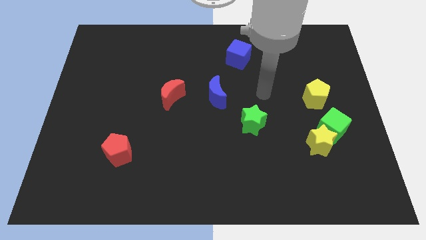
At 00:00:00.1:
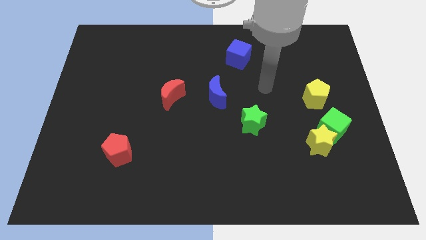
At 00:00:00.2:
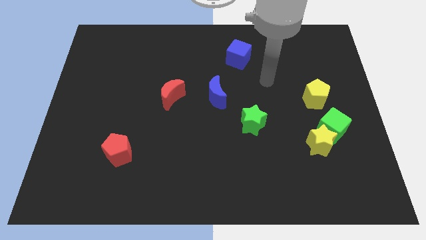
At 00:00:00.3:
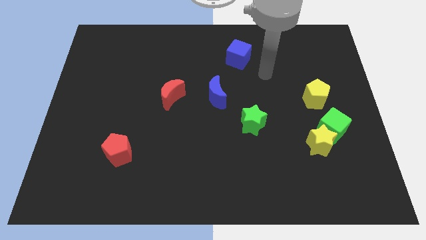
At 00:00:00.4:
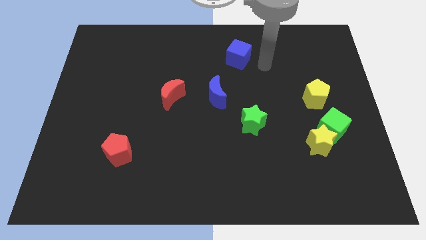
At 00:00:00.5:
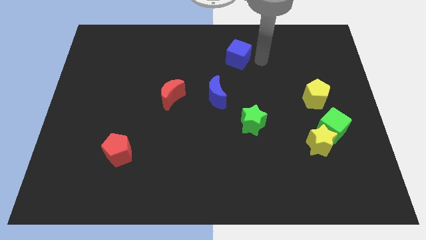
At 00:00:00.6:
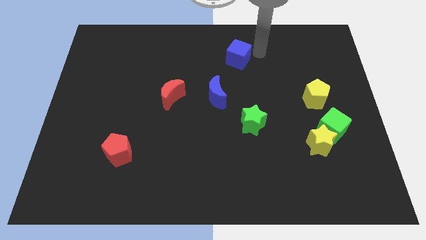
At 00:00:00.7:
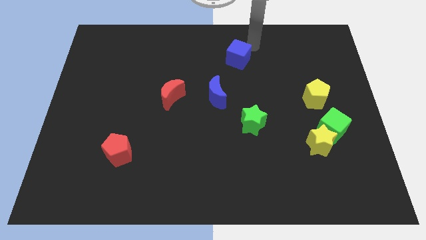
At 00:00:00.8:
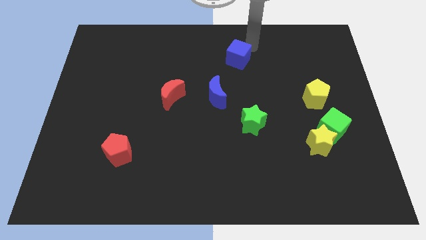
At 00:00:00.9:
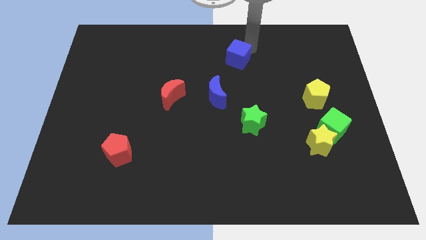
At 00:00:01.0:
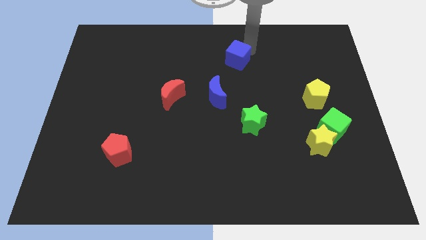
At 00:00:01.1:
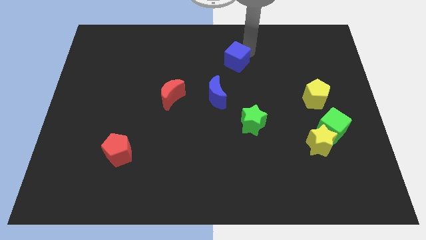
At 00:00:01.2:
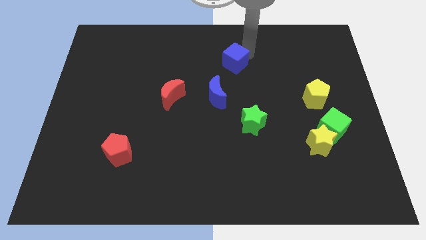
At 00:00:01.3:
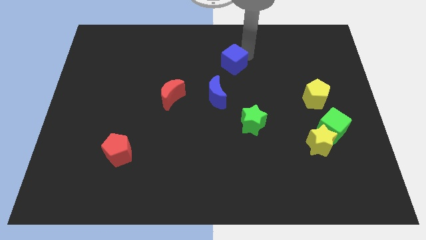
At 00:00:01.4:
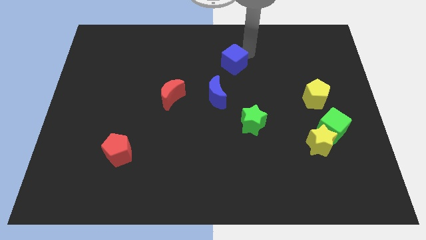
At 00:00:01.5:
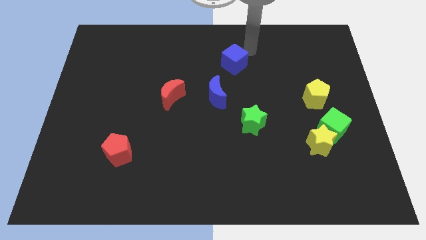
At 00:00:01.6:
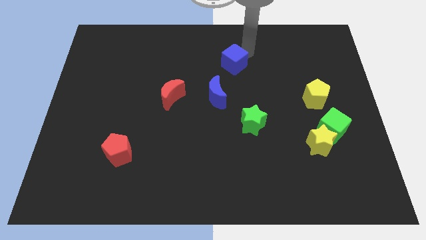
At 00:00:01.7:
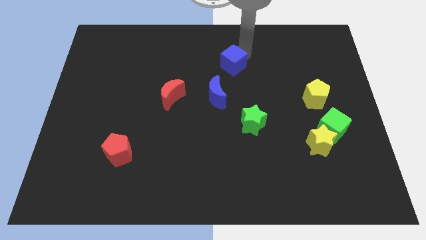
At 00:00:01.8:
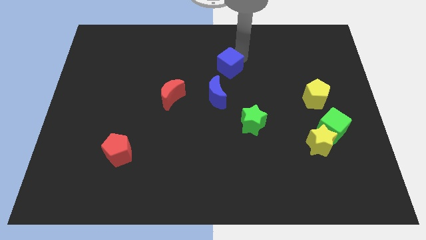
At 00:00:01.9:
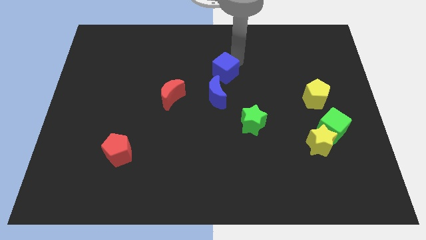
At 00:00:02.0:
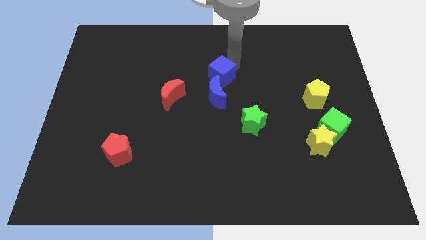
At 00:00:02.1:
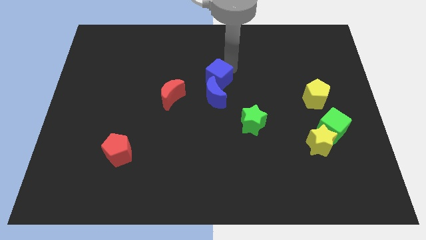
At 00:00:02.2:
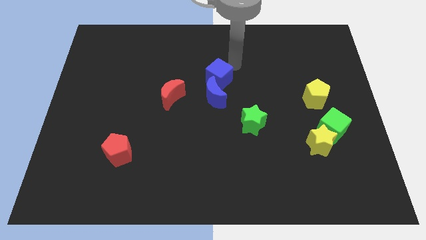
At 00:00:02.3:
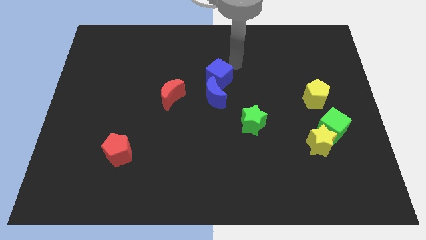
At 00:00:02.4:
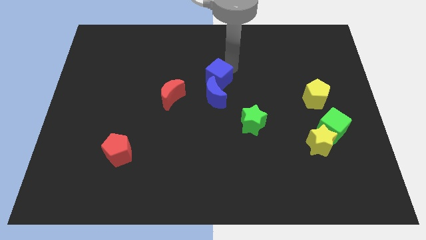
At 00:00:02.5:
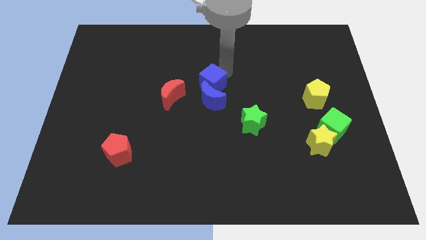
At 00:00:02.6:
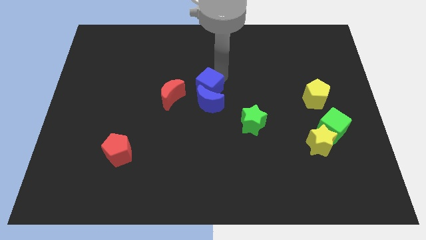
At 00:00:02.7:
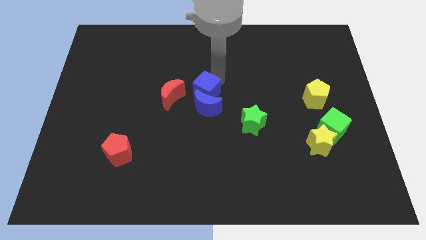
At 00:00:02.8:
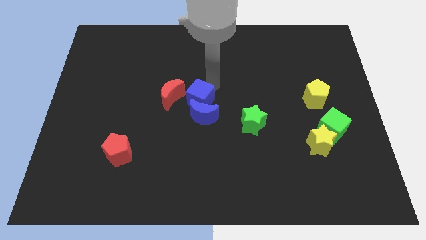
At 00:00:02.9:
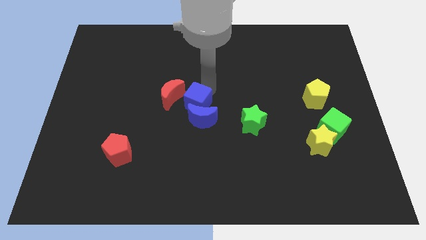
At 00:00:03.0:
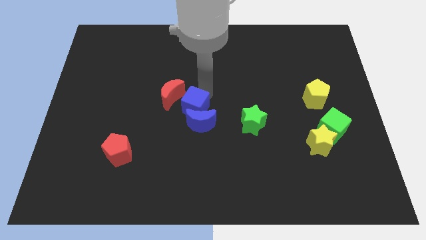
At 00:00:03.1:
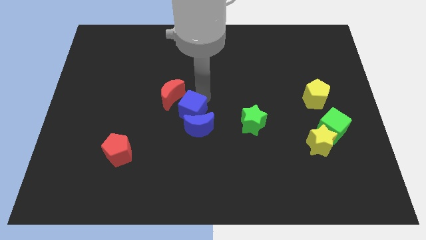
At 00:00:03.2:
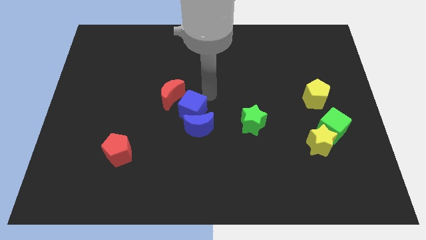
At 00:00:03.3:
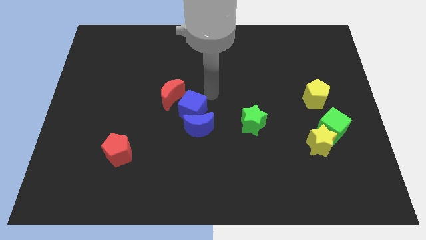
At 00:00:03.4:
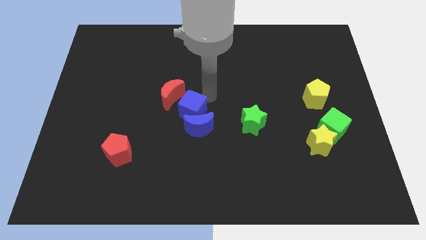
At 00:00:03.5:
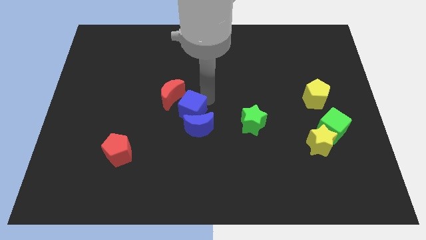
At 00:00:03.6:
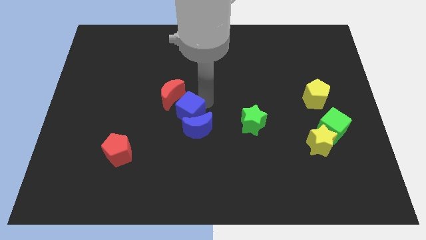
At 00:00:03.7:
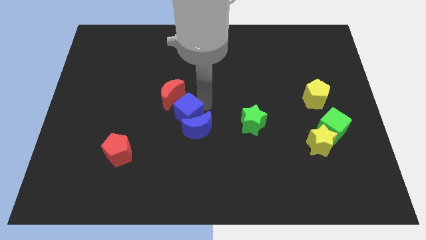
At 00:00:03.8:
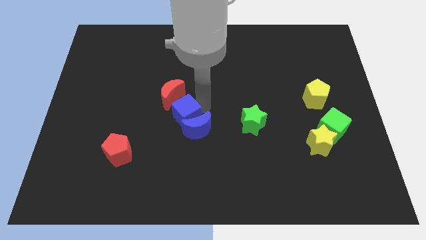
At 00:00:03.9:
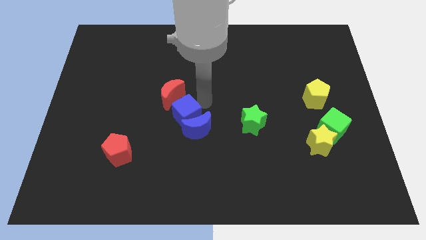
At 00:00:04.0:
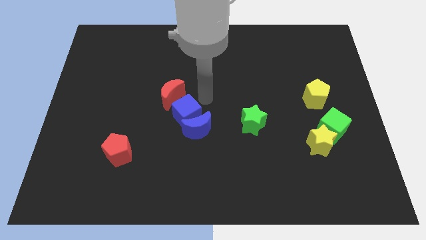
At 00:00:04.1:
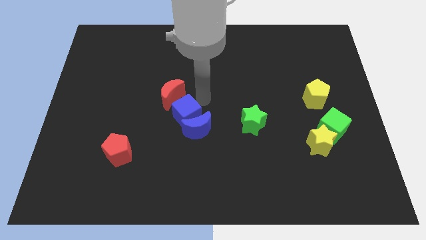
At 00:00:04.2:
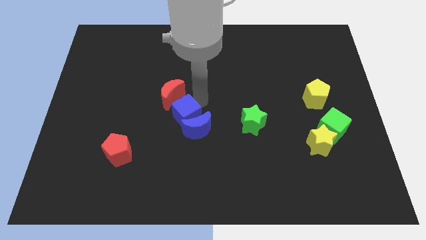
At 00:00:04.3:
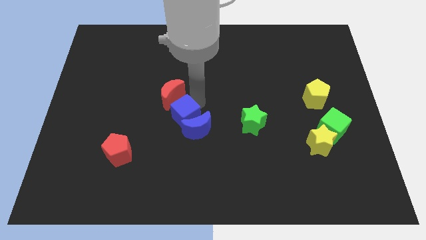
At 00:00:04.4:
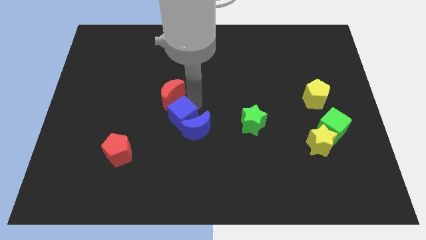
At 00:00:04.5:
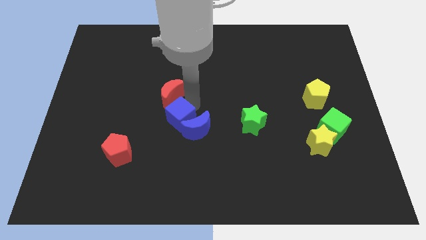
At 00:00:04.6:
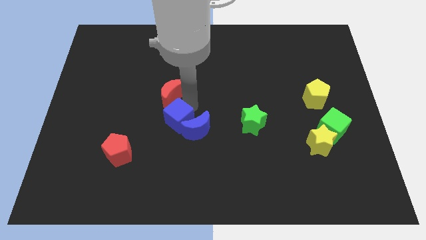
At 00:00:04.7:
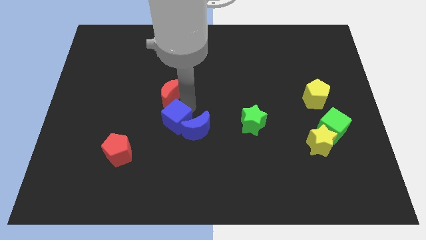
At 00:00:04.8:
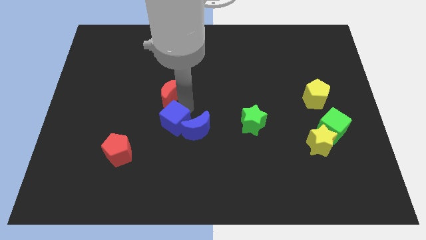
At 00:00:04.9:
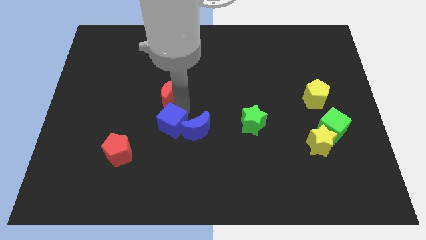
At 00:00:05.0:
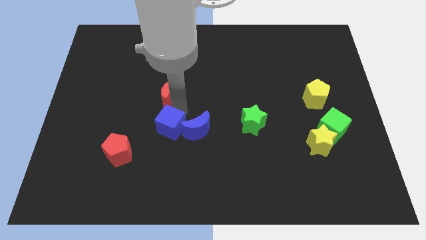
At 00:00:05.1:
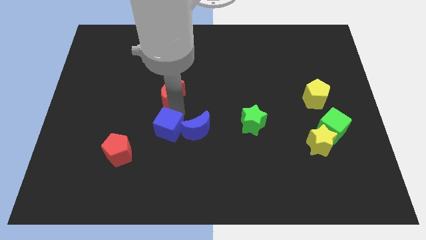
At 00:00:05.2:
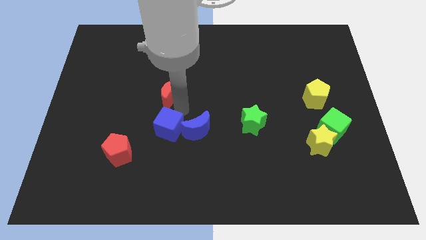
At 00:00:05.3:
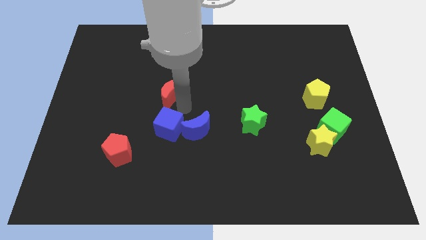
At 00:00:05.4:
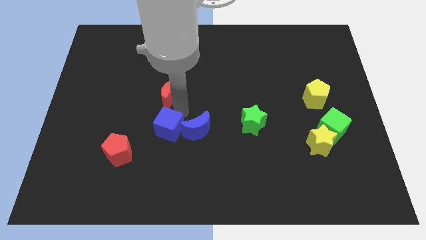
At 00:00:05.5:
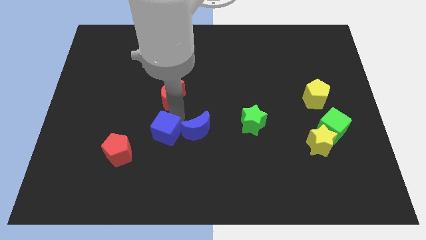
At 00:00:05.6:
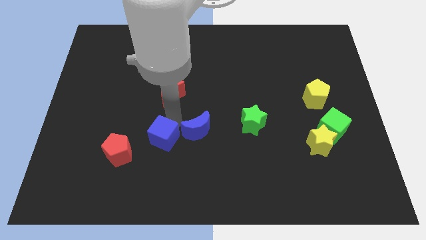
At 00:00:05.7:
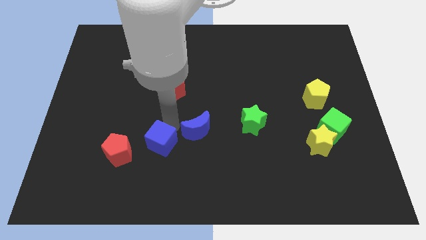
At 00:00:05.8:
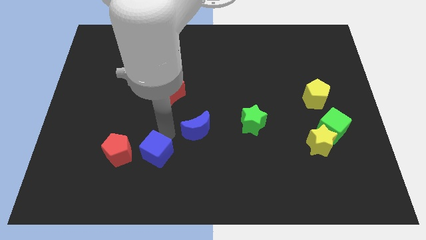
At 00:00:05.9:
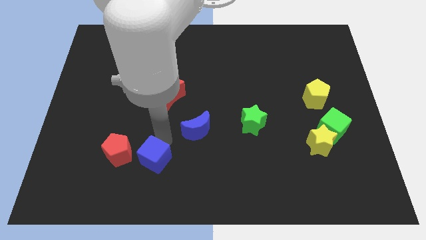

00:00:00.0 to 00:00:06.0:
push the blue cube to the bottom right side of the red pentagon

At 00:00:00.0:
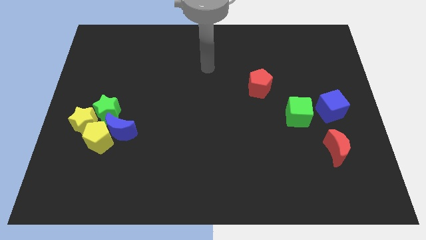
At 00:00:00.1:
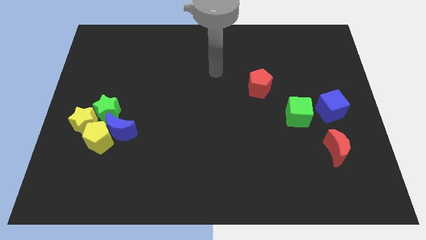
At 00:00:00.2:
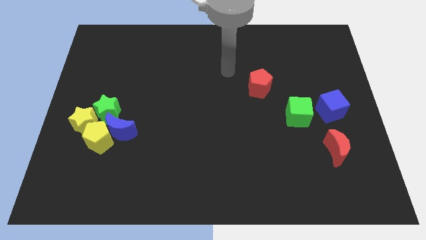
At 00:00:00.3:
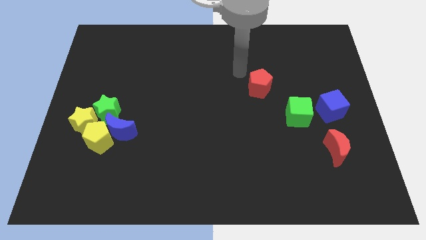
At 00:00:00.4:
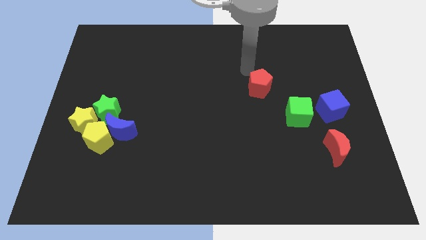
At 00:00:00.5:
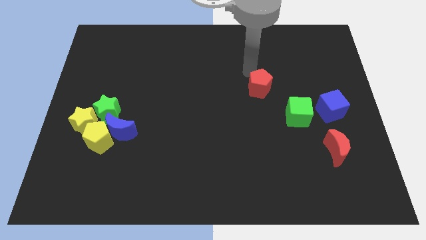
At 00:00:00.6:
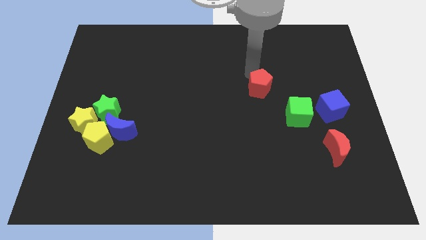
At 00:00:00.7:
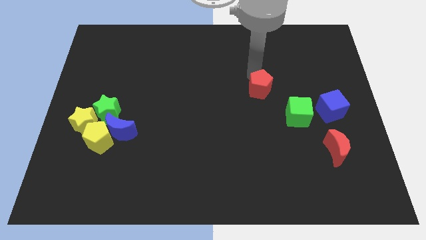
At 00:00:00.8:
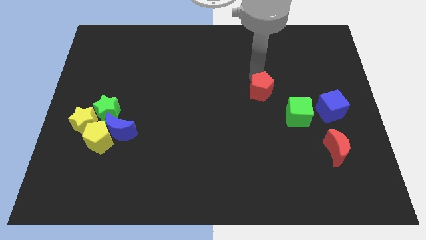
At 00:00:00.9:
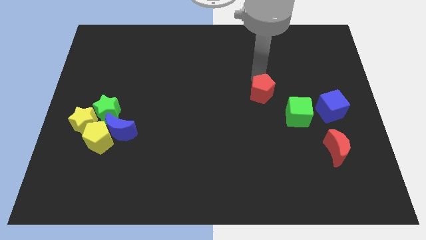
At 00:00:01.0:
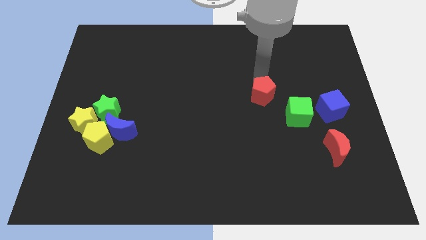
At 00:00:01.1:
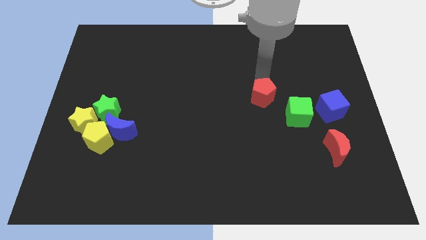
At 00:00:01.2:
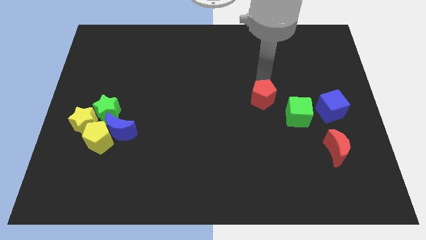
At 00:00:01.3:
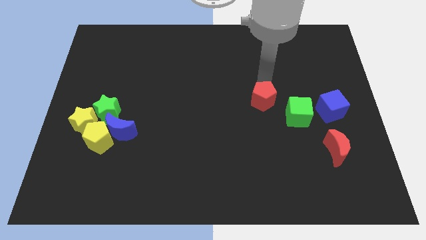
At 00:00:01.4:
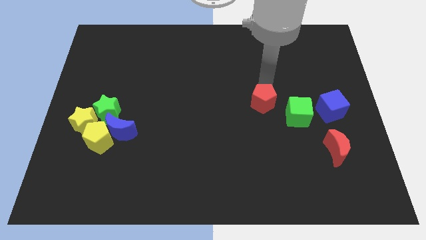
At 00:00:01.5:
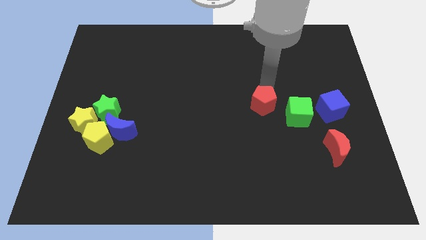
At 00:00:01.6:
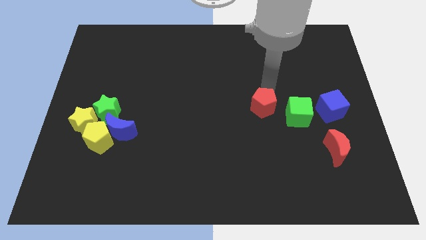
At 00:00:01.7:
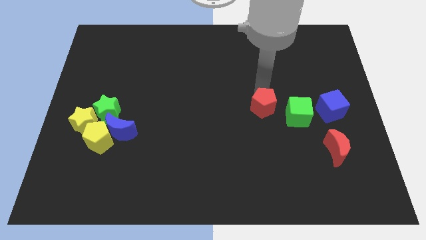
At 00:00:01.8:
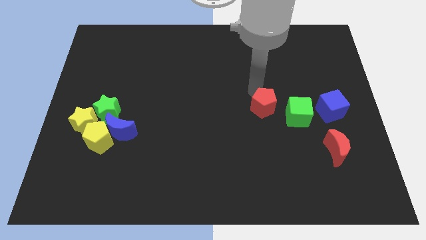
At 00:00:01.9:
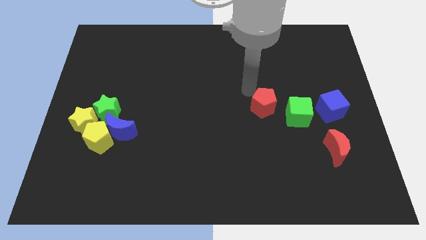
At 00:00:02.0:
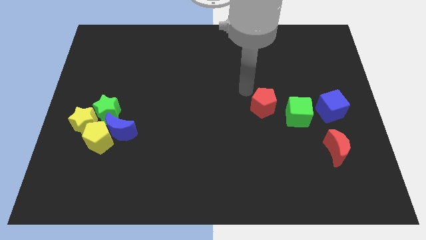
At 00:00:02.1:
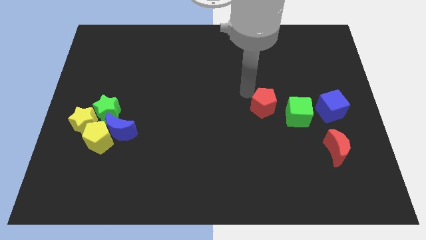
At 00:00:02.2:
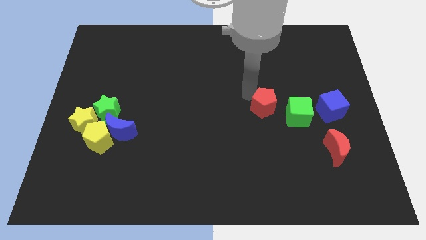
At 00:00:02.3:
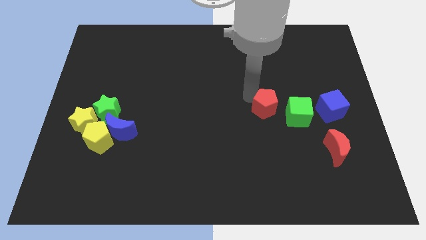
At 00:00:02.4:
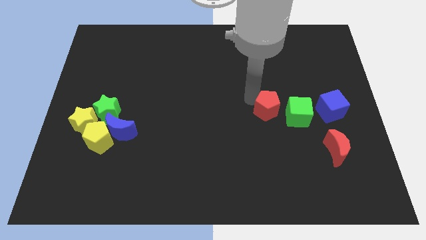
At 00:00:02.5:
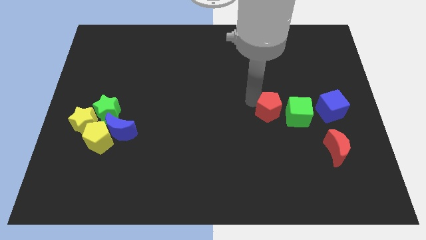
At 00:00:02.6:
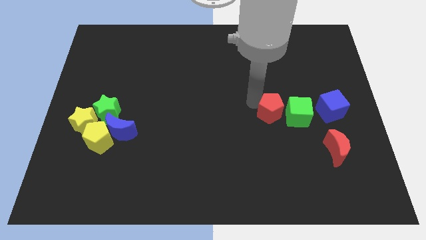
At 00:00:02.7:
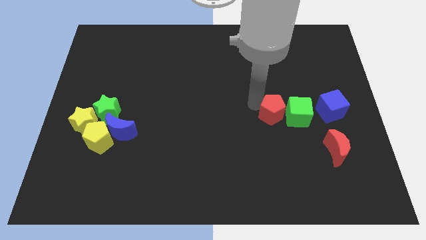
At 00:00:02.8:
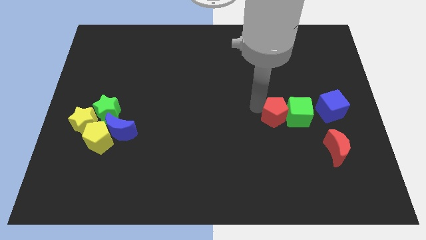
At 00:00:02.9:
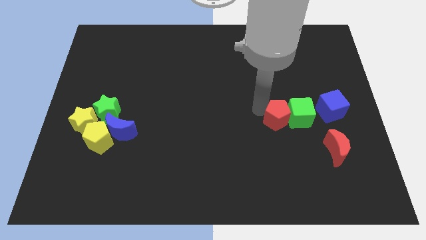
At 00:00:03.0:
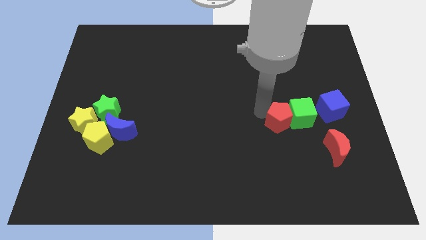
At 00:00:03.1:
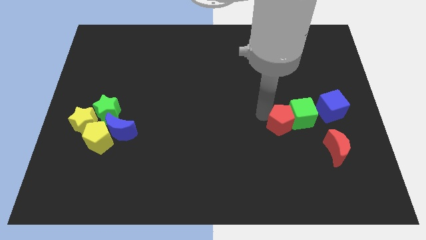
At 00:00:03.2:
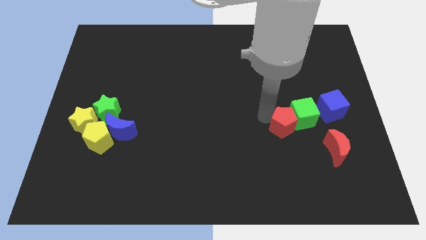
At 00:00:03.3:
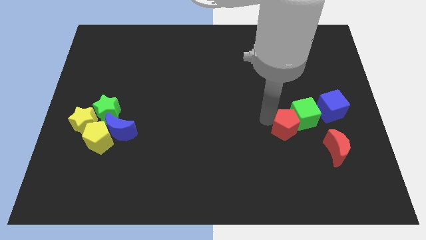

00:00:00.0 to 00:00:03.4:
push the red pentagon to the top left side of the red moon
